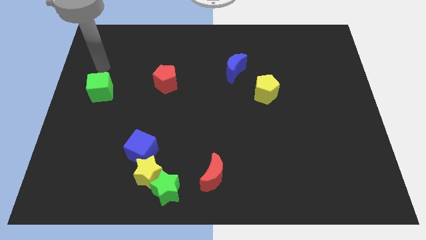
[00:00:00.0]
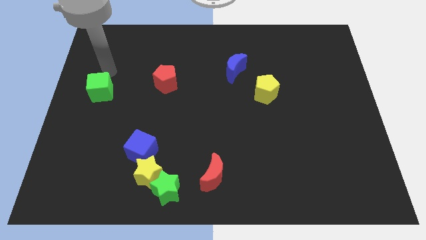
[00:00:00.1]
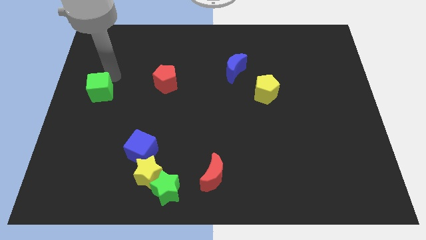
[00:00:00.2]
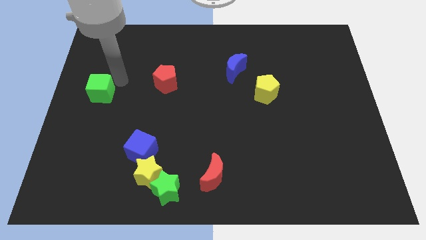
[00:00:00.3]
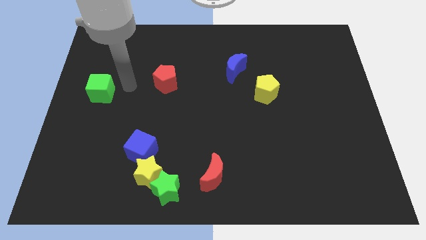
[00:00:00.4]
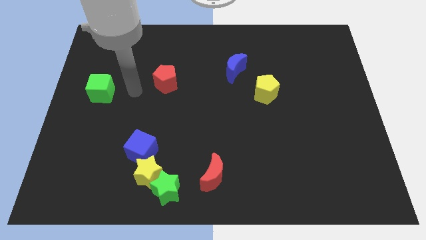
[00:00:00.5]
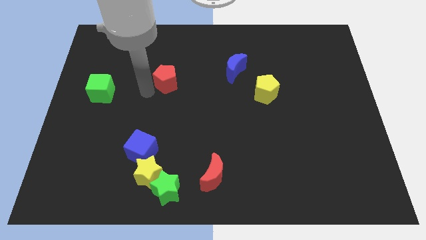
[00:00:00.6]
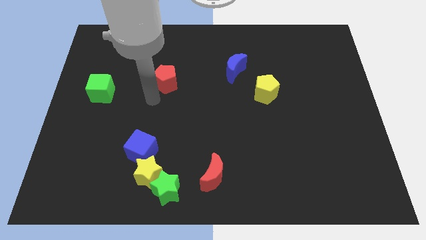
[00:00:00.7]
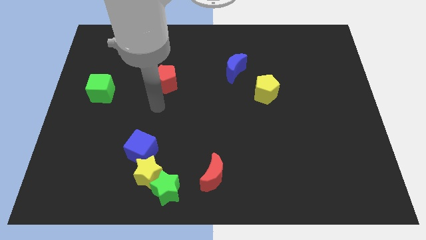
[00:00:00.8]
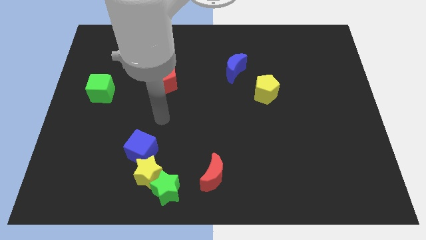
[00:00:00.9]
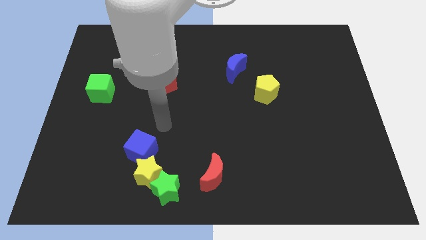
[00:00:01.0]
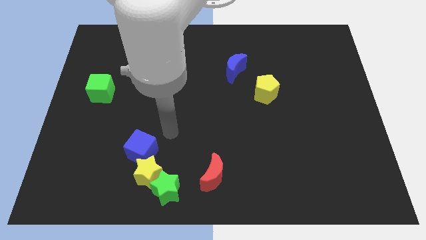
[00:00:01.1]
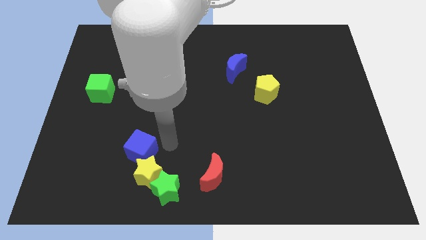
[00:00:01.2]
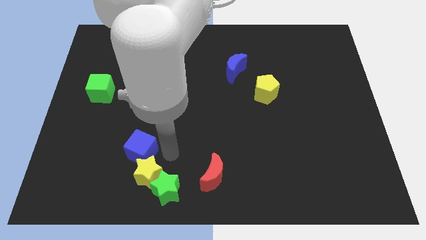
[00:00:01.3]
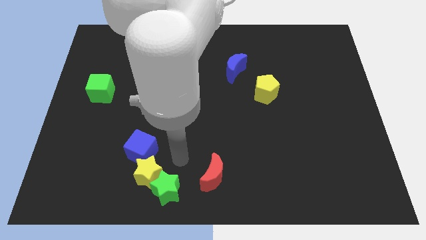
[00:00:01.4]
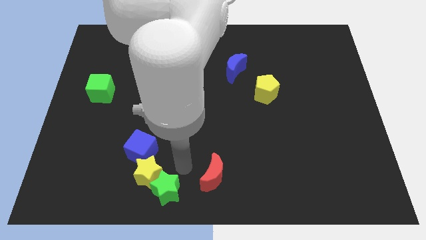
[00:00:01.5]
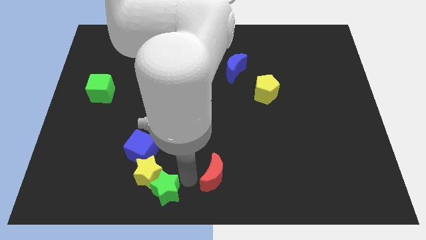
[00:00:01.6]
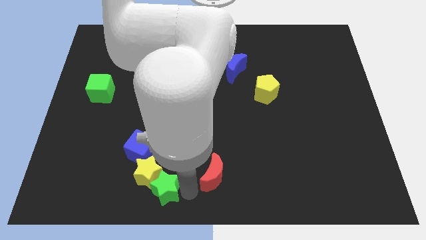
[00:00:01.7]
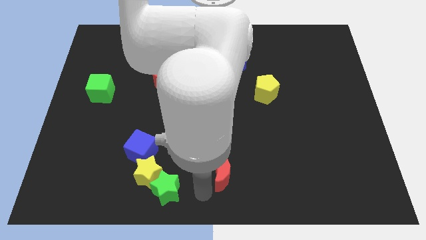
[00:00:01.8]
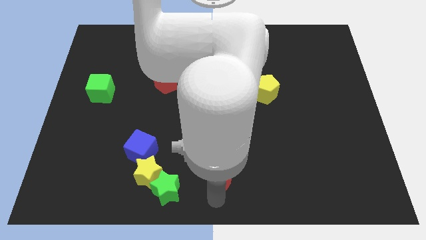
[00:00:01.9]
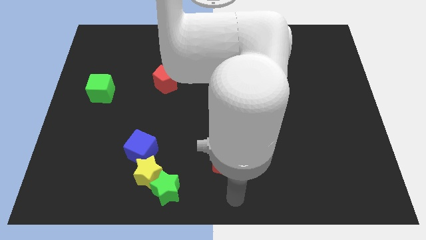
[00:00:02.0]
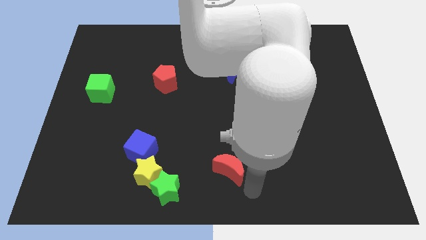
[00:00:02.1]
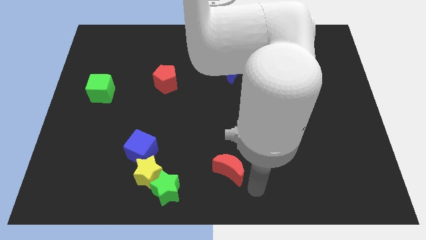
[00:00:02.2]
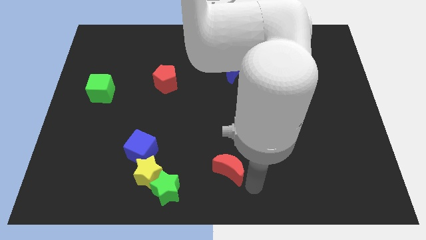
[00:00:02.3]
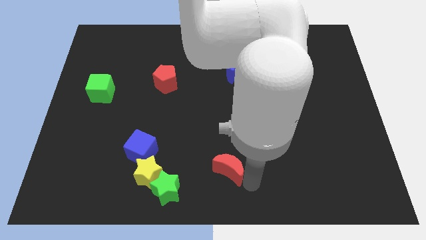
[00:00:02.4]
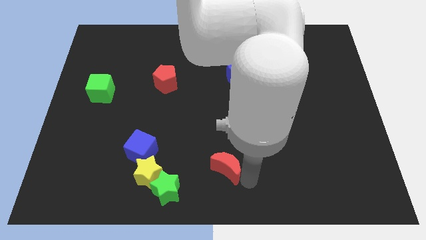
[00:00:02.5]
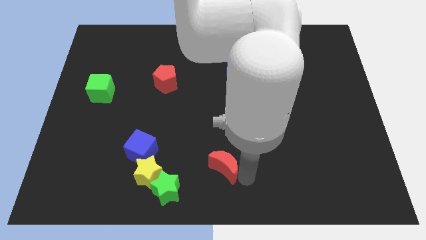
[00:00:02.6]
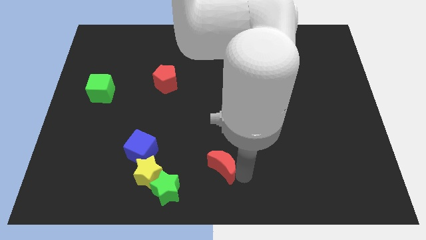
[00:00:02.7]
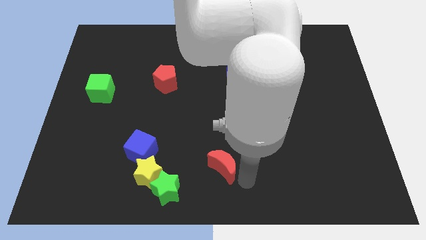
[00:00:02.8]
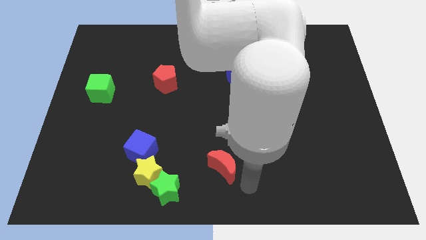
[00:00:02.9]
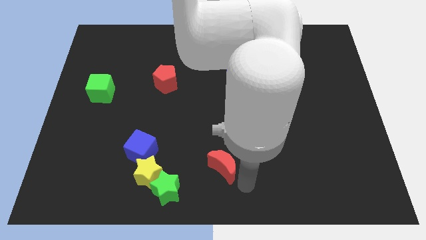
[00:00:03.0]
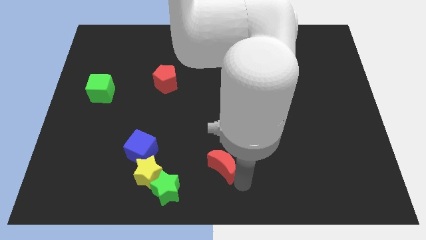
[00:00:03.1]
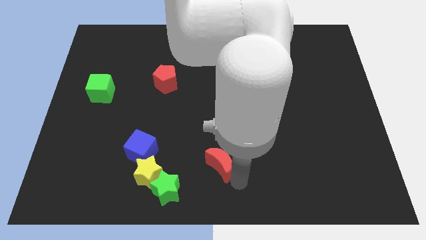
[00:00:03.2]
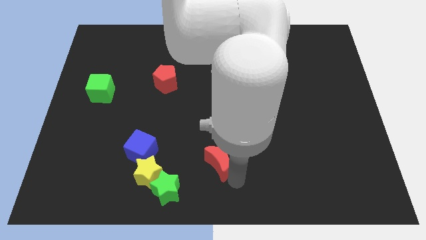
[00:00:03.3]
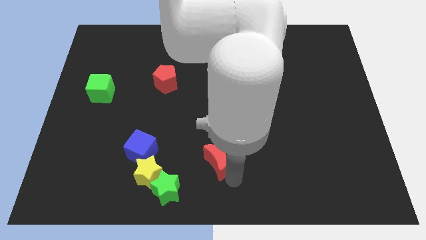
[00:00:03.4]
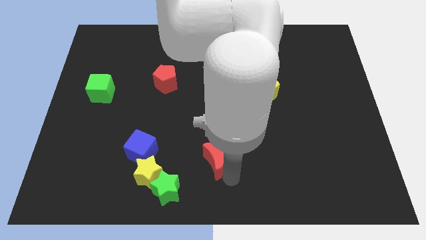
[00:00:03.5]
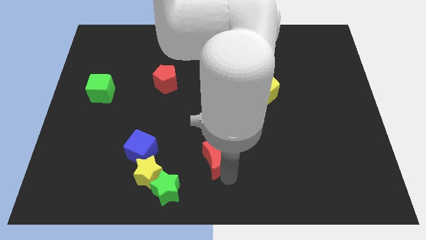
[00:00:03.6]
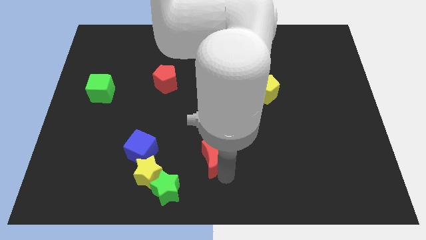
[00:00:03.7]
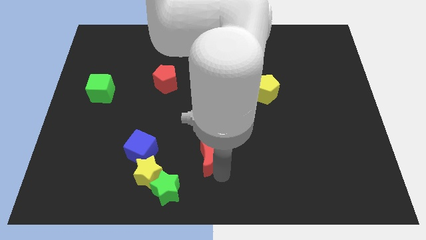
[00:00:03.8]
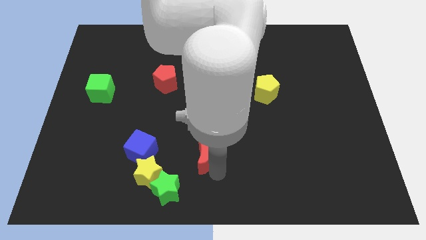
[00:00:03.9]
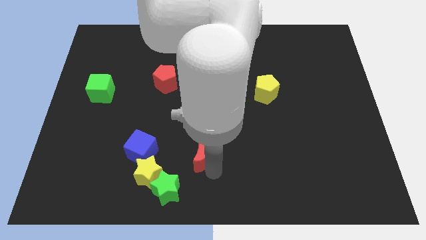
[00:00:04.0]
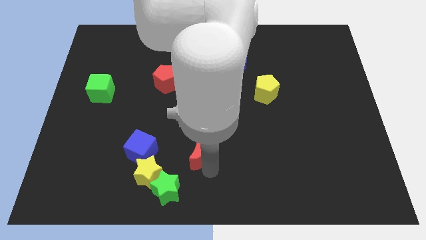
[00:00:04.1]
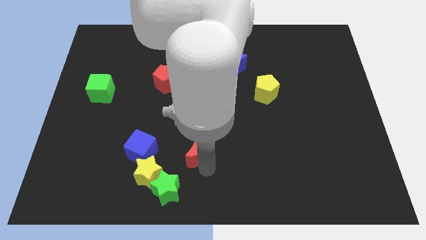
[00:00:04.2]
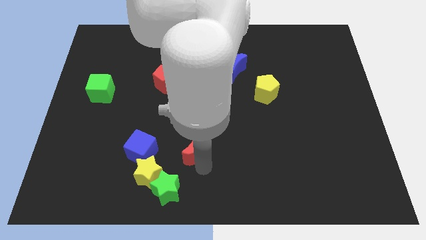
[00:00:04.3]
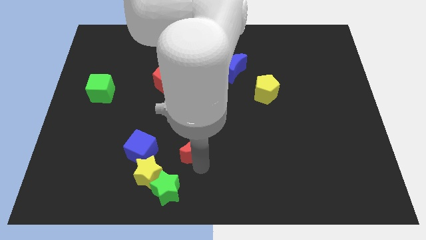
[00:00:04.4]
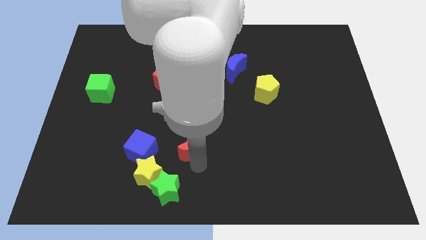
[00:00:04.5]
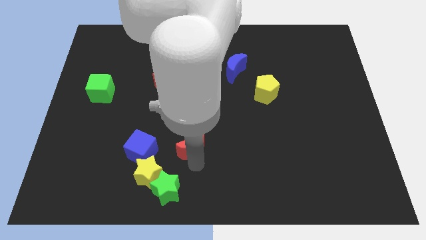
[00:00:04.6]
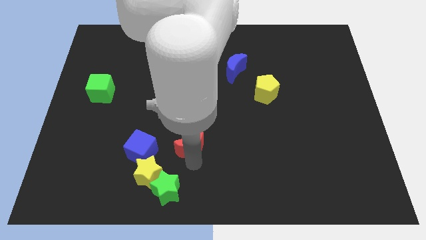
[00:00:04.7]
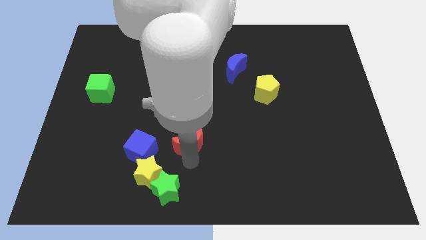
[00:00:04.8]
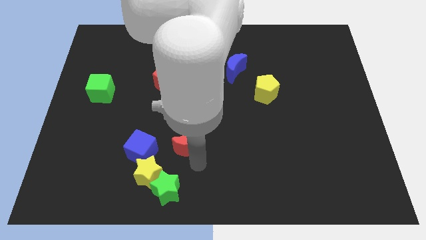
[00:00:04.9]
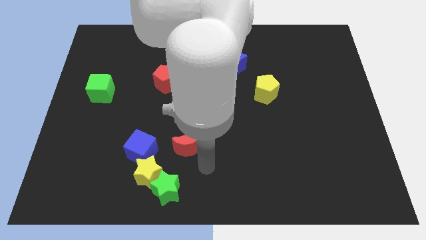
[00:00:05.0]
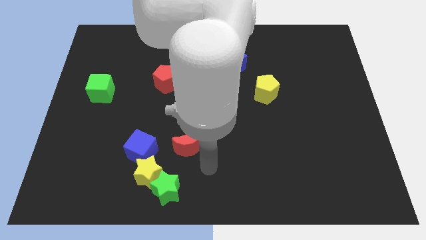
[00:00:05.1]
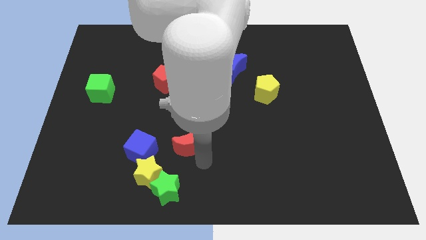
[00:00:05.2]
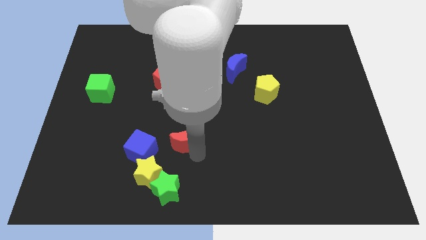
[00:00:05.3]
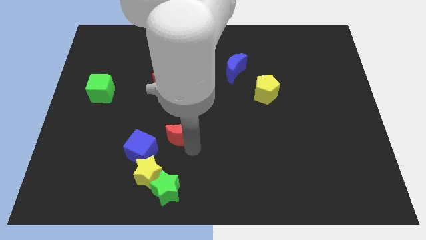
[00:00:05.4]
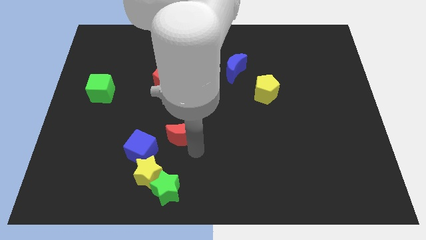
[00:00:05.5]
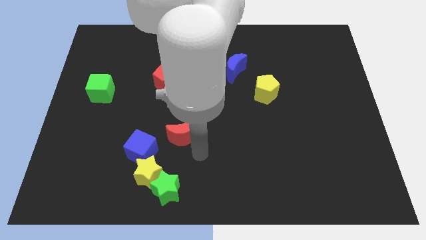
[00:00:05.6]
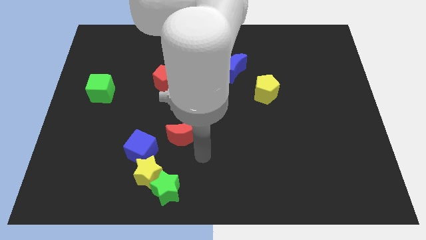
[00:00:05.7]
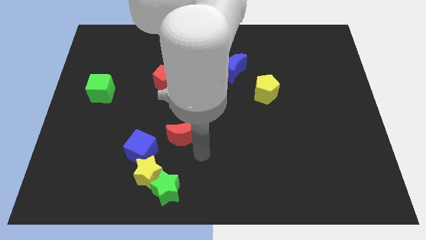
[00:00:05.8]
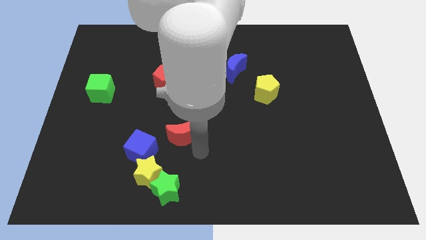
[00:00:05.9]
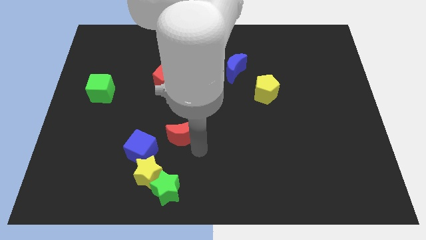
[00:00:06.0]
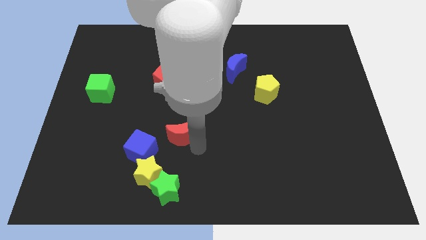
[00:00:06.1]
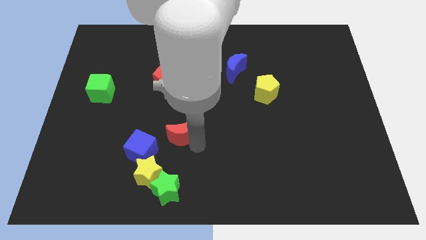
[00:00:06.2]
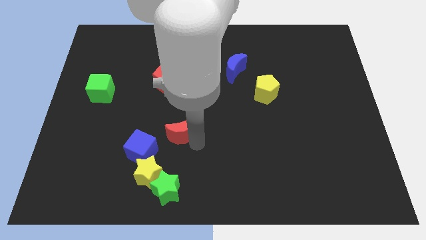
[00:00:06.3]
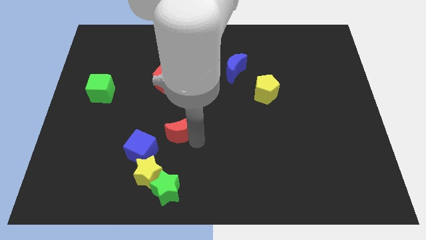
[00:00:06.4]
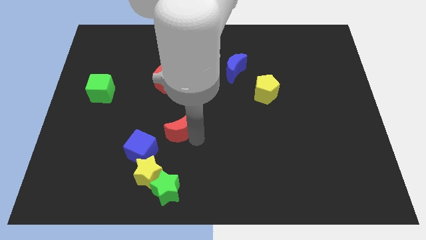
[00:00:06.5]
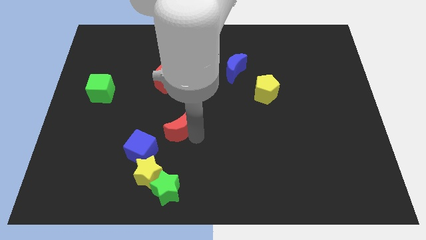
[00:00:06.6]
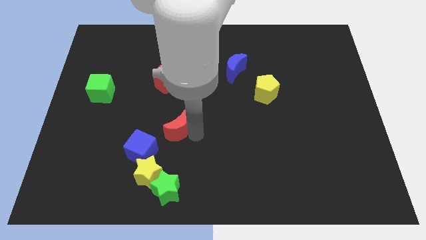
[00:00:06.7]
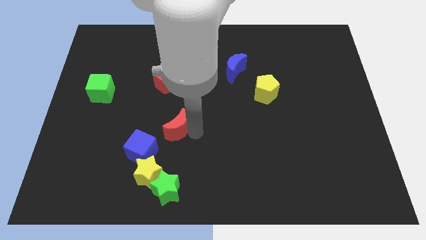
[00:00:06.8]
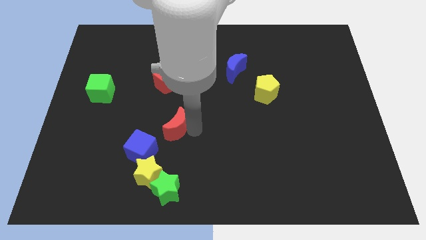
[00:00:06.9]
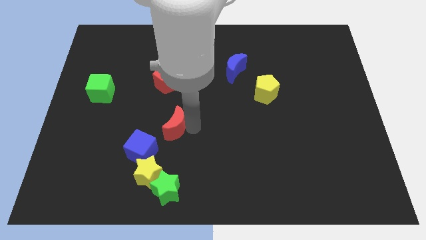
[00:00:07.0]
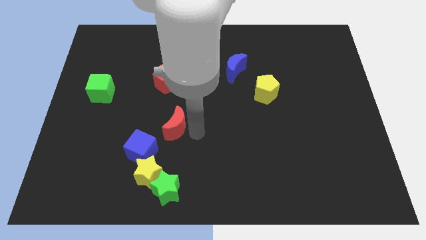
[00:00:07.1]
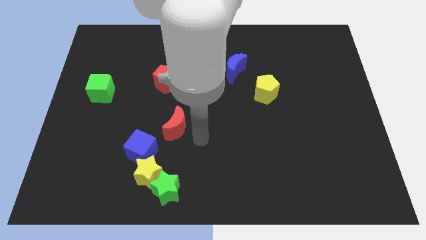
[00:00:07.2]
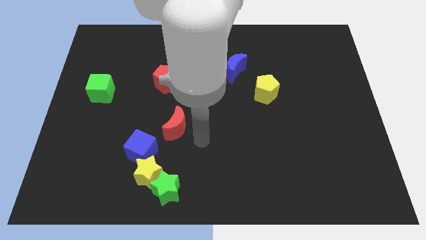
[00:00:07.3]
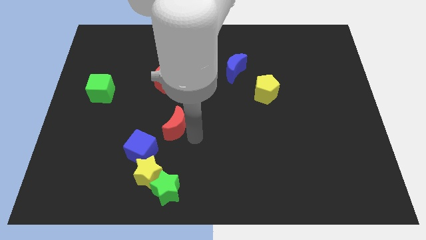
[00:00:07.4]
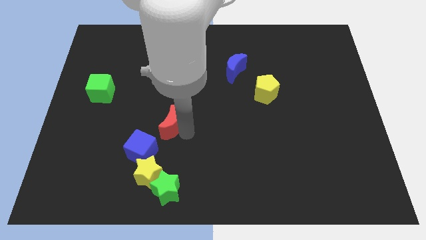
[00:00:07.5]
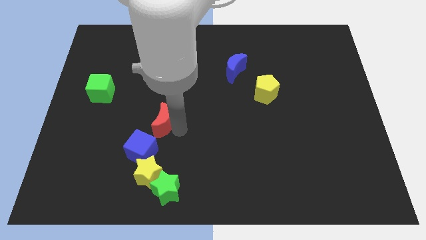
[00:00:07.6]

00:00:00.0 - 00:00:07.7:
move the red moon to the top of the blue cube

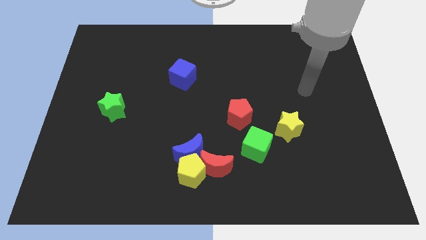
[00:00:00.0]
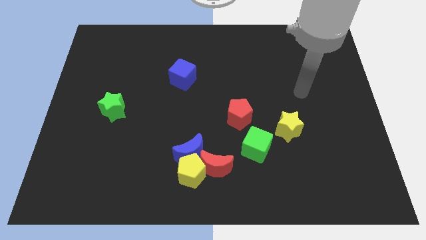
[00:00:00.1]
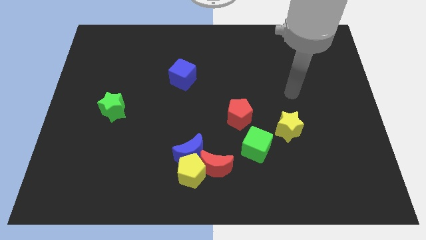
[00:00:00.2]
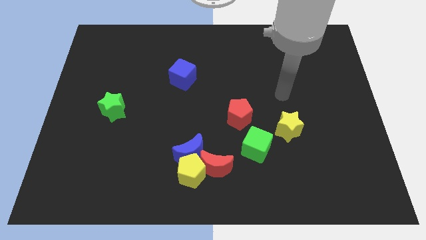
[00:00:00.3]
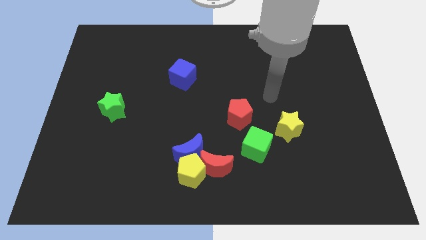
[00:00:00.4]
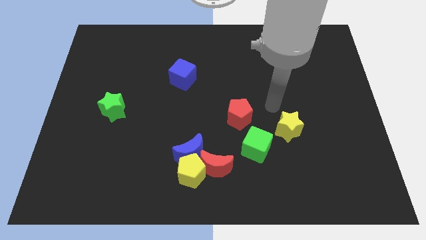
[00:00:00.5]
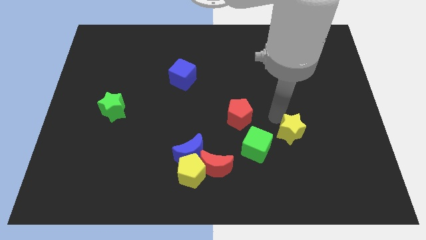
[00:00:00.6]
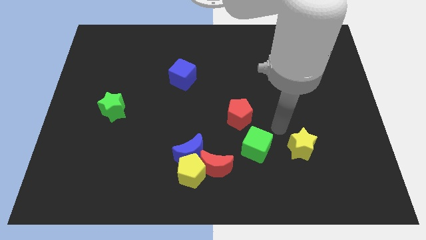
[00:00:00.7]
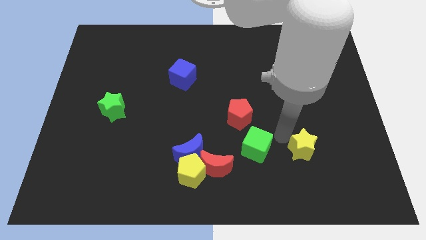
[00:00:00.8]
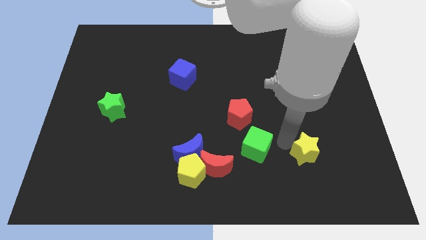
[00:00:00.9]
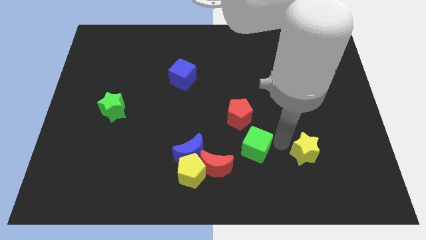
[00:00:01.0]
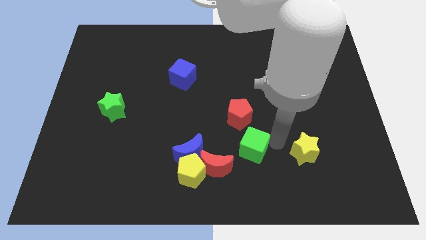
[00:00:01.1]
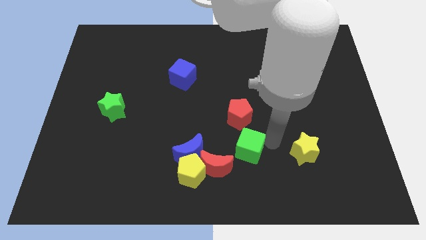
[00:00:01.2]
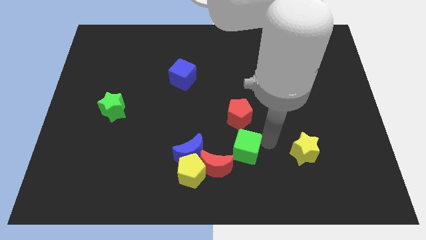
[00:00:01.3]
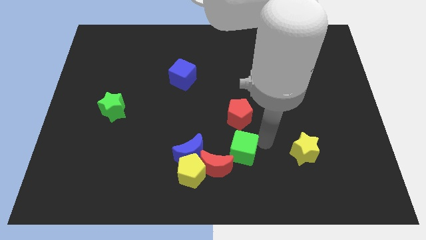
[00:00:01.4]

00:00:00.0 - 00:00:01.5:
put the green cube diagonally up and to the right of the yellow pentagon
